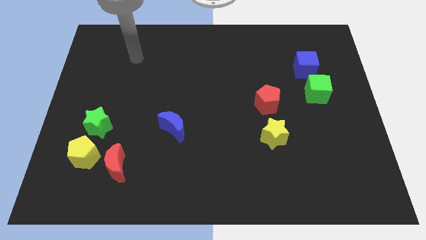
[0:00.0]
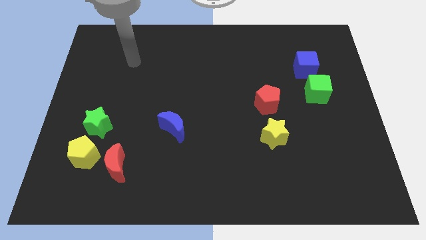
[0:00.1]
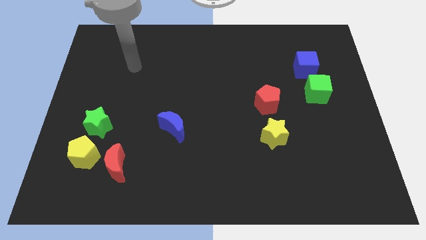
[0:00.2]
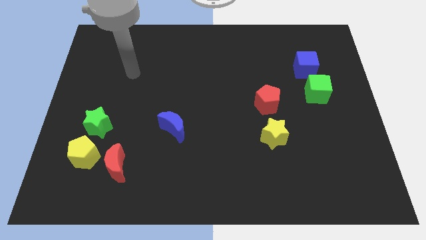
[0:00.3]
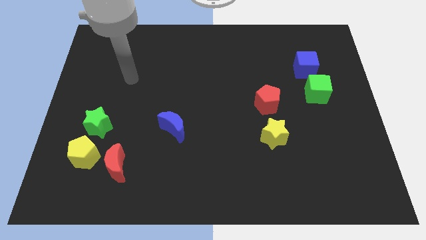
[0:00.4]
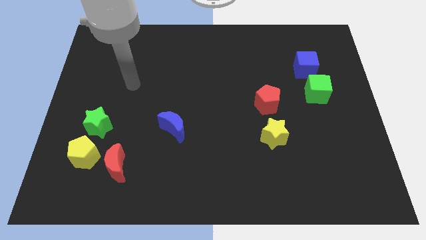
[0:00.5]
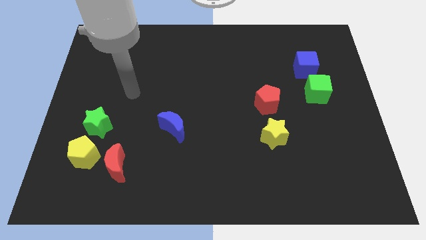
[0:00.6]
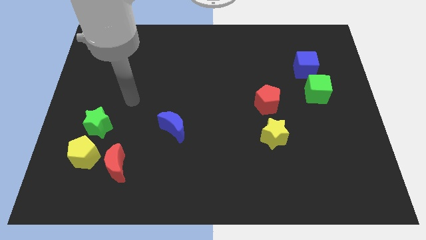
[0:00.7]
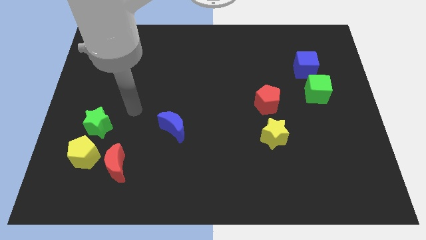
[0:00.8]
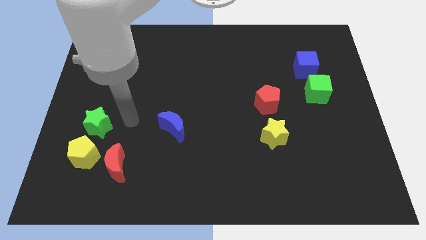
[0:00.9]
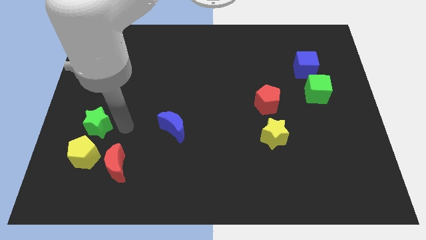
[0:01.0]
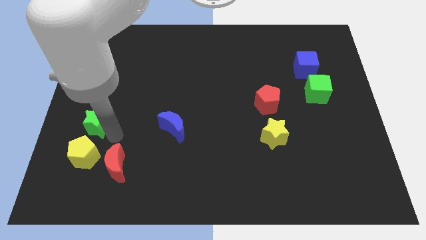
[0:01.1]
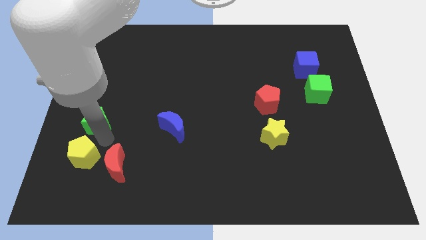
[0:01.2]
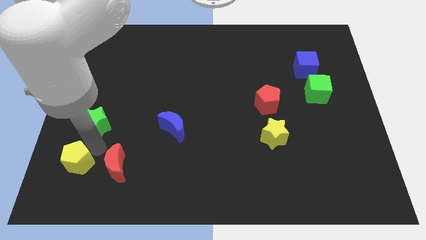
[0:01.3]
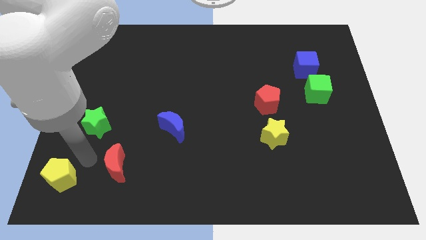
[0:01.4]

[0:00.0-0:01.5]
separate the red moon from the yellow pentagon

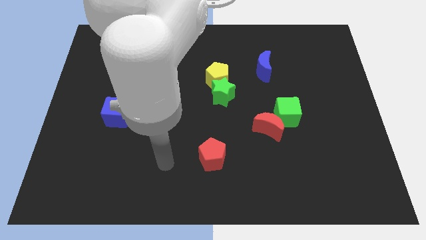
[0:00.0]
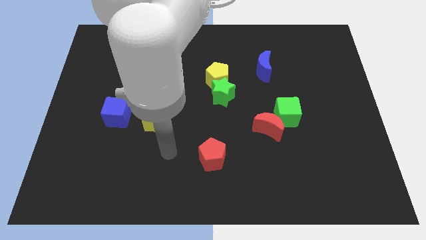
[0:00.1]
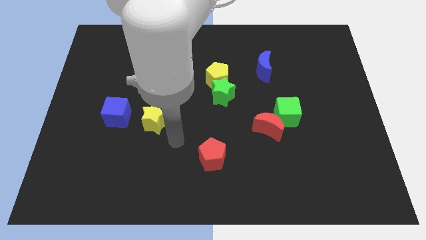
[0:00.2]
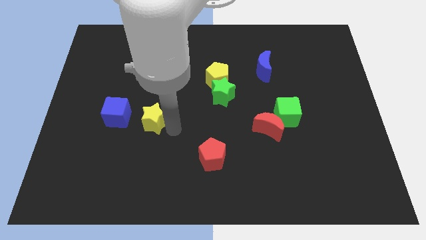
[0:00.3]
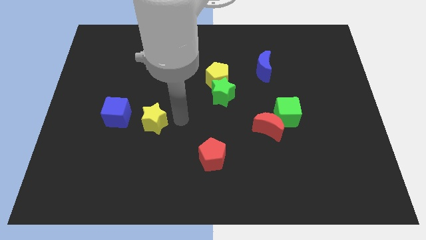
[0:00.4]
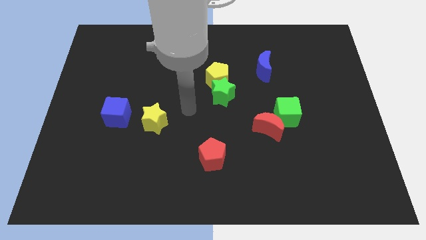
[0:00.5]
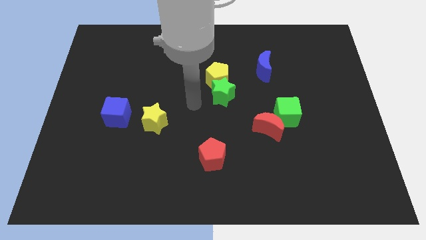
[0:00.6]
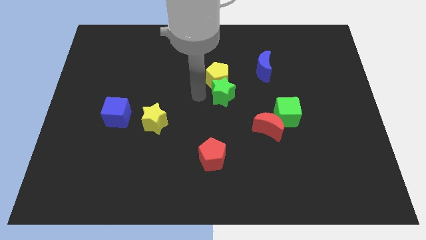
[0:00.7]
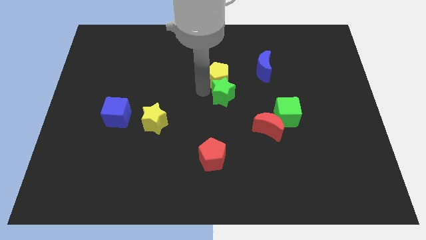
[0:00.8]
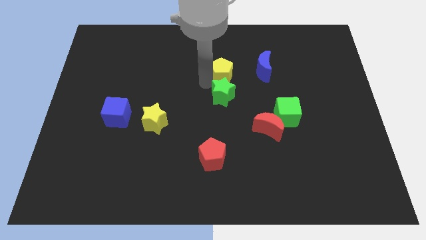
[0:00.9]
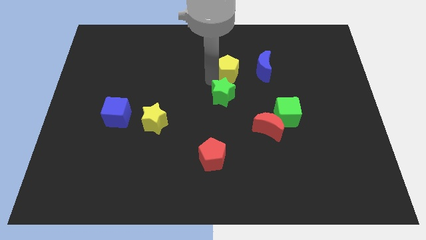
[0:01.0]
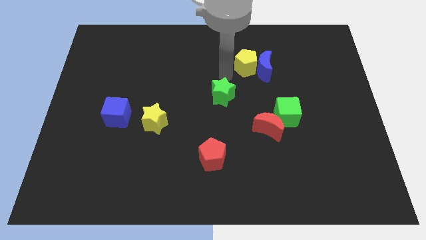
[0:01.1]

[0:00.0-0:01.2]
pull the green star apart from the yellow pentagon

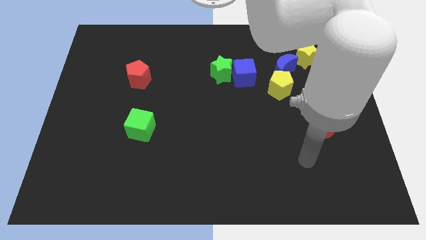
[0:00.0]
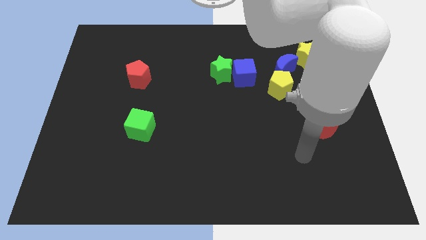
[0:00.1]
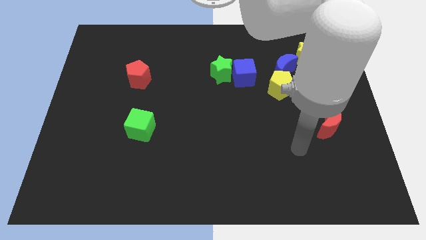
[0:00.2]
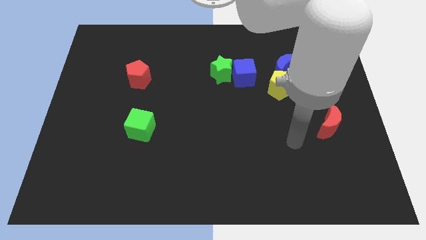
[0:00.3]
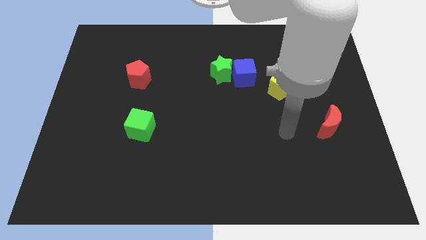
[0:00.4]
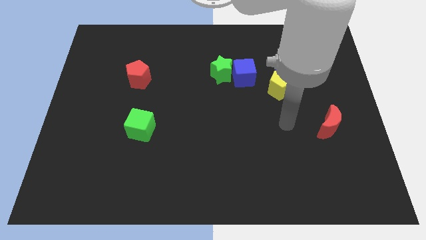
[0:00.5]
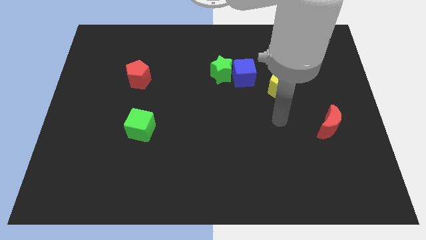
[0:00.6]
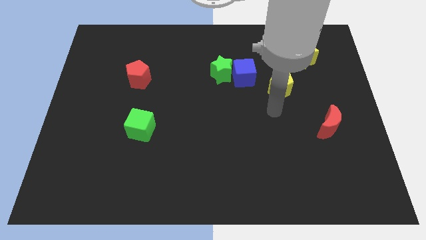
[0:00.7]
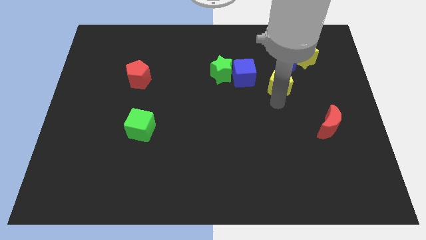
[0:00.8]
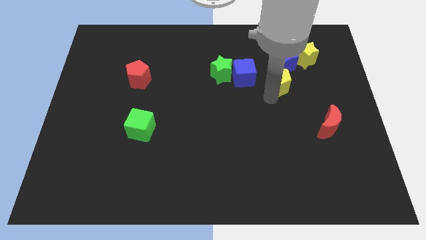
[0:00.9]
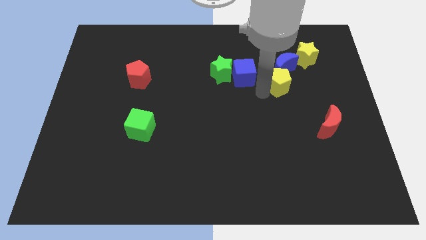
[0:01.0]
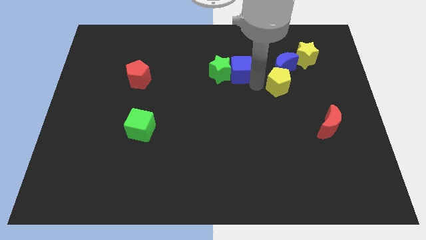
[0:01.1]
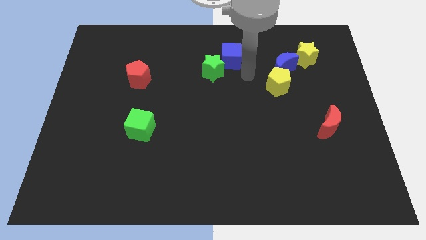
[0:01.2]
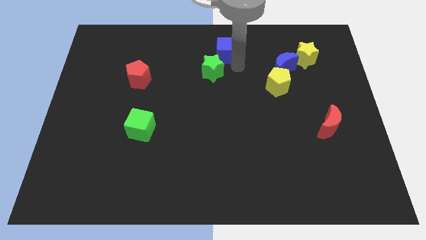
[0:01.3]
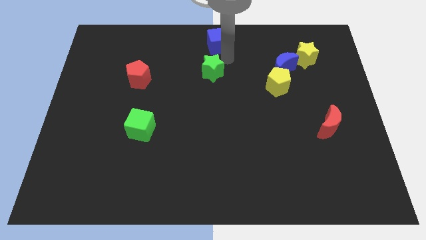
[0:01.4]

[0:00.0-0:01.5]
move the green star away from the blue cube

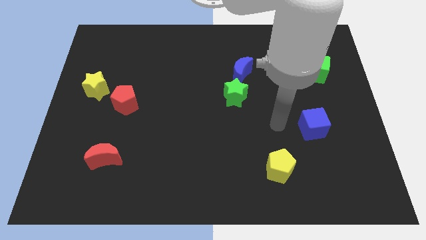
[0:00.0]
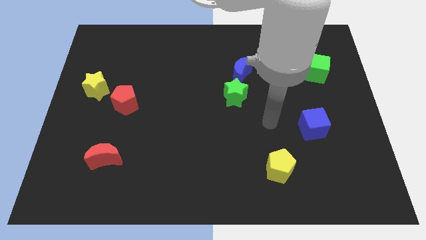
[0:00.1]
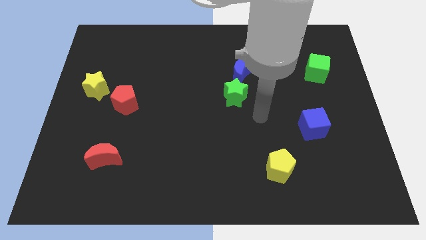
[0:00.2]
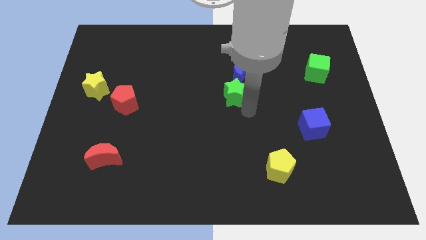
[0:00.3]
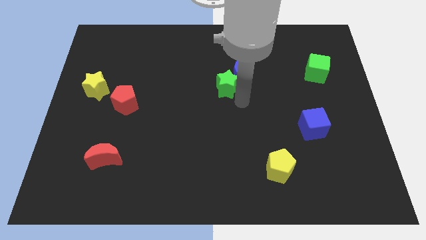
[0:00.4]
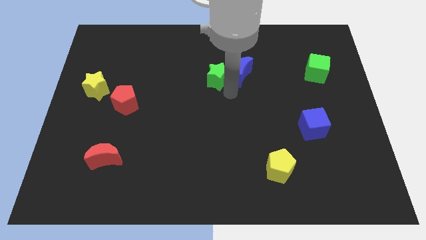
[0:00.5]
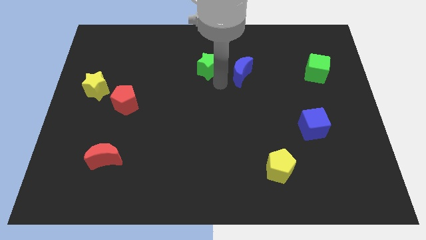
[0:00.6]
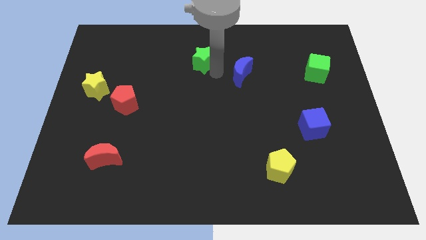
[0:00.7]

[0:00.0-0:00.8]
move the blue moon away from the green star

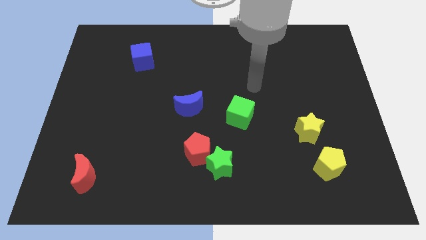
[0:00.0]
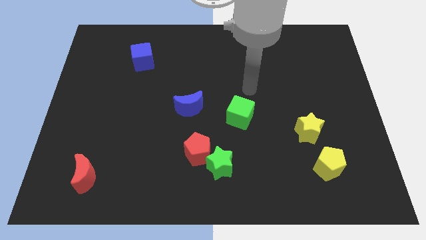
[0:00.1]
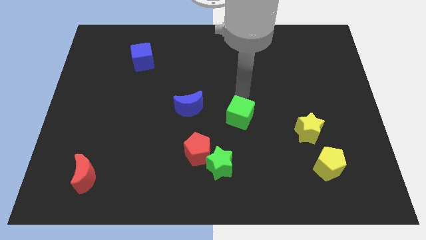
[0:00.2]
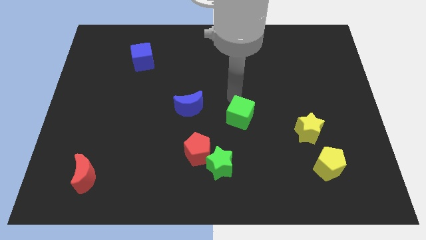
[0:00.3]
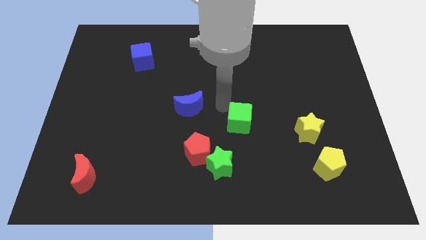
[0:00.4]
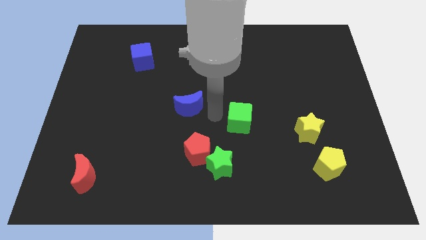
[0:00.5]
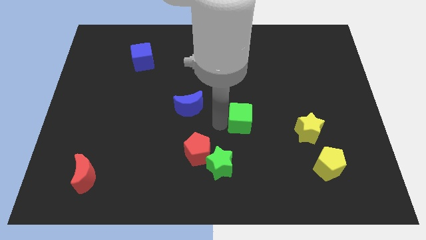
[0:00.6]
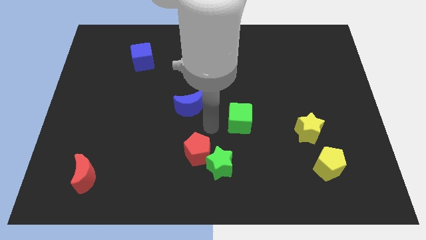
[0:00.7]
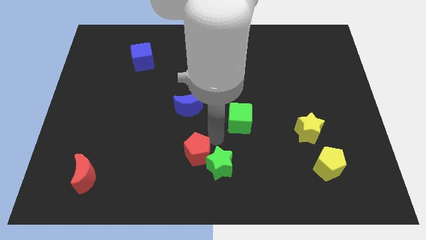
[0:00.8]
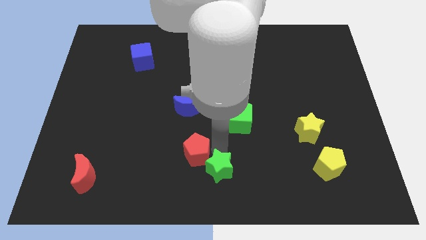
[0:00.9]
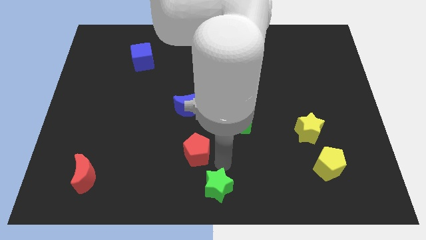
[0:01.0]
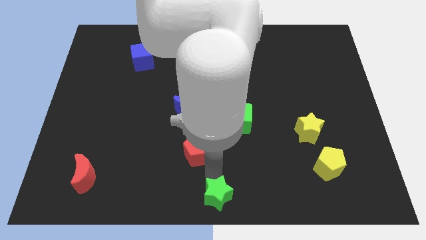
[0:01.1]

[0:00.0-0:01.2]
separate the red pentagon from the green star

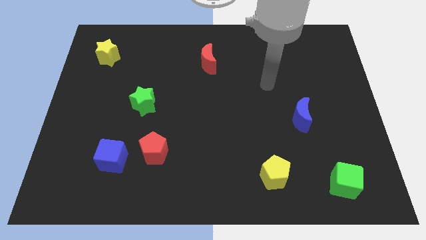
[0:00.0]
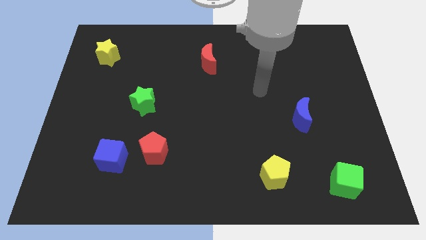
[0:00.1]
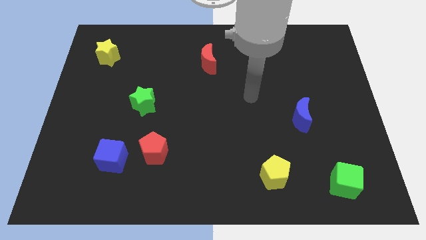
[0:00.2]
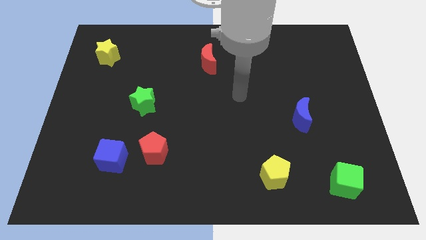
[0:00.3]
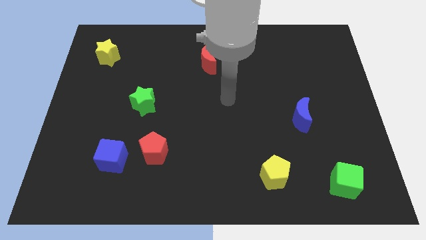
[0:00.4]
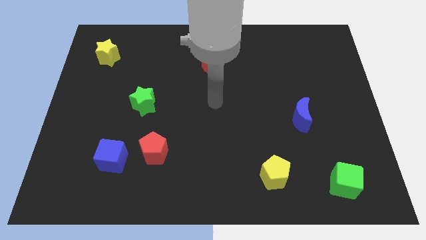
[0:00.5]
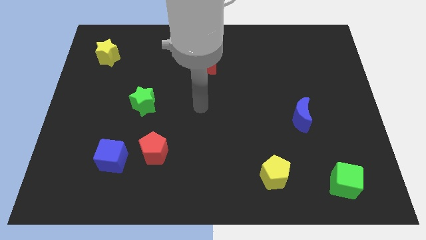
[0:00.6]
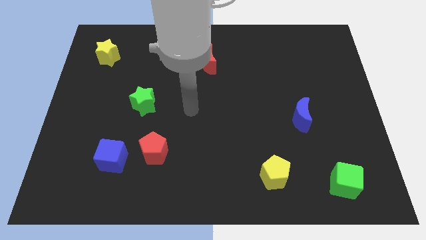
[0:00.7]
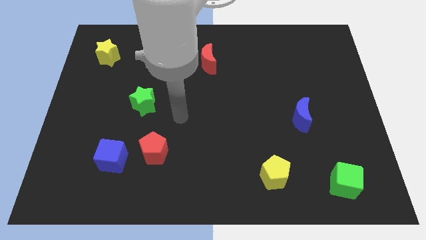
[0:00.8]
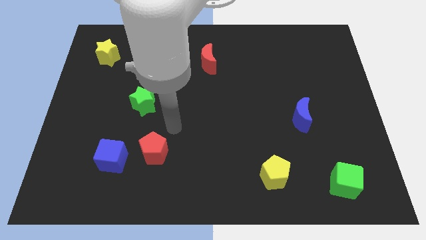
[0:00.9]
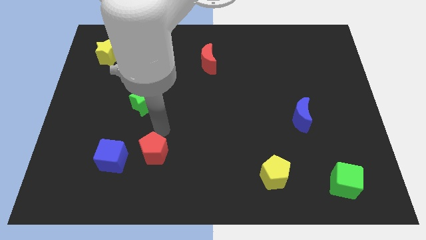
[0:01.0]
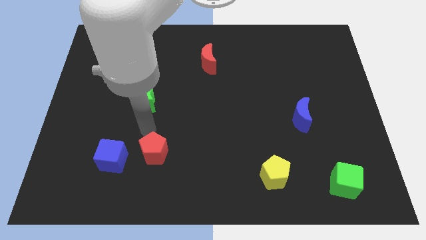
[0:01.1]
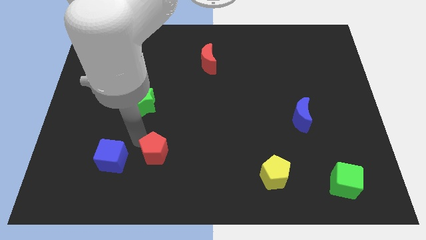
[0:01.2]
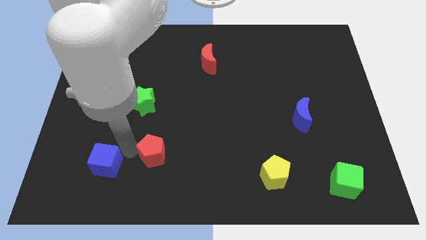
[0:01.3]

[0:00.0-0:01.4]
pull the red pentagon apart from the blue cube

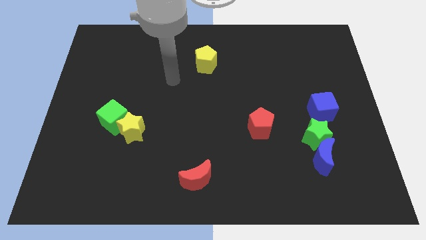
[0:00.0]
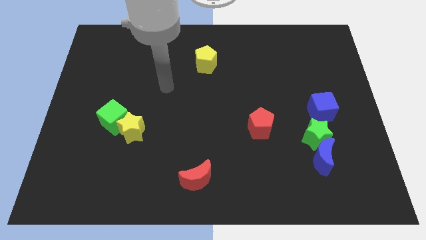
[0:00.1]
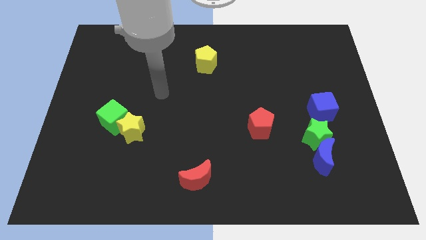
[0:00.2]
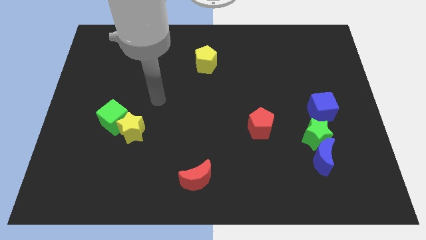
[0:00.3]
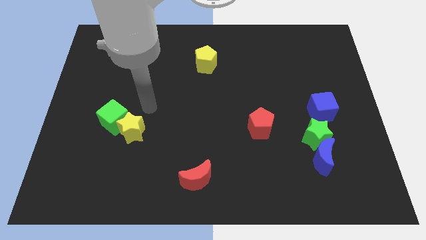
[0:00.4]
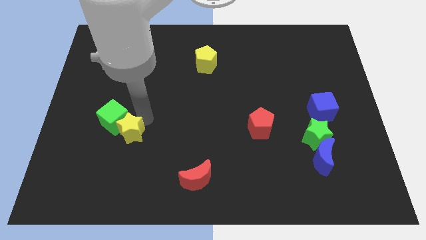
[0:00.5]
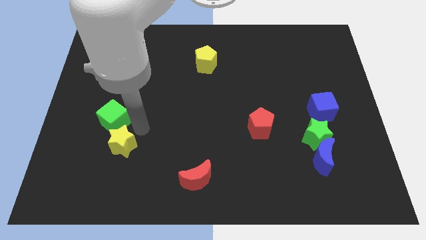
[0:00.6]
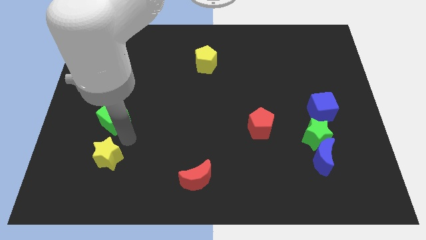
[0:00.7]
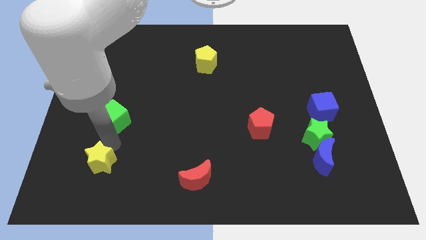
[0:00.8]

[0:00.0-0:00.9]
move the green cube away from the yellow star

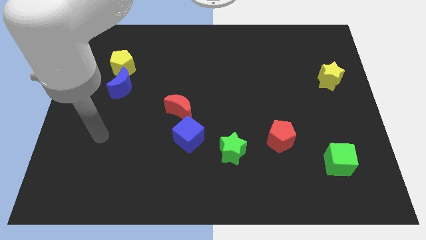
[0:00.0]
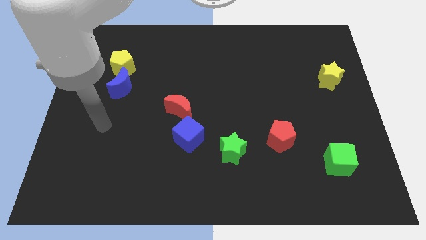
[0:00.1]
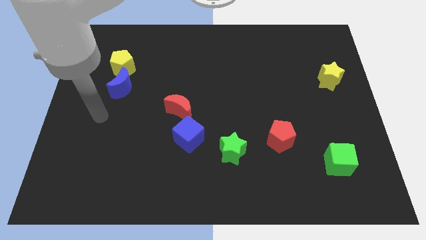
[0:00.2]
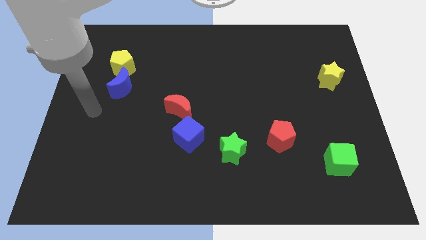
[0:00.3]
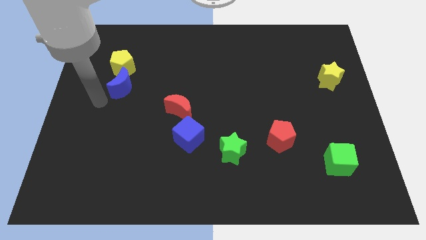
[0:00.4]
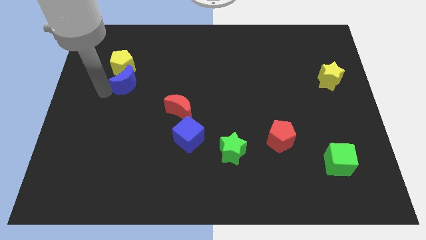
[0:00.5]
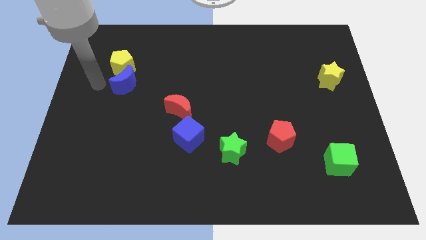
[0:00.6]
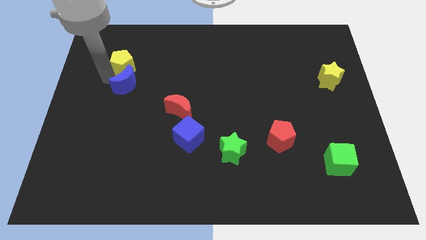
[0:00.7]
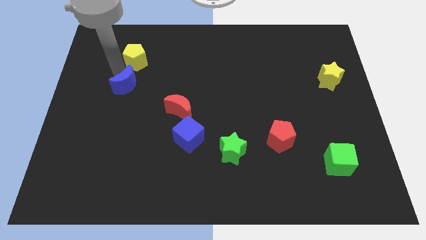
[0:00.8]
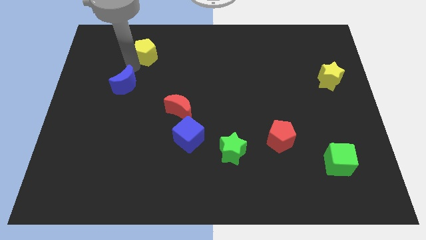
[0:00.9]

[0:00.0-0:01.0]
separate the blue moon from the yellow pentagon

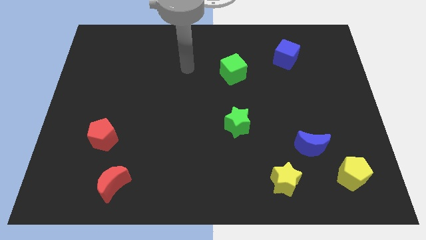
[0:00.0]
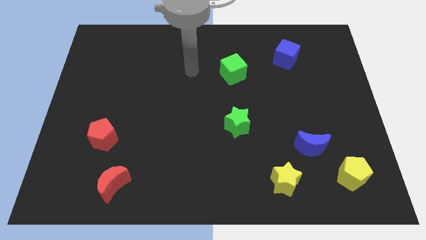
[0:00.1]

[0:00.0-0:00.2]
pull the blue moon apart from the yellow pentagon
